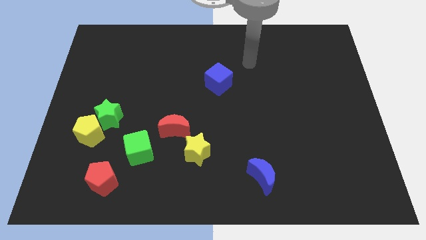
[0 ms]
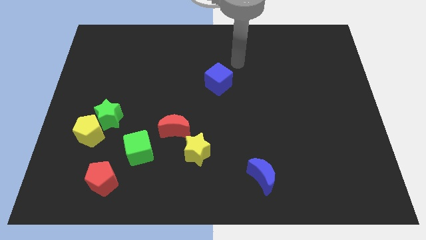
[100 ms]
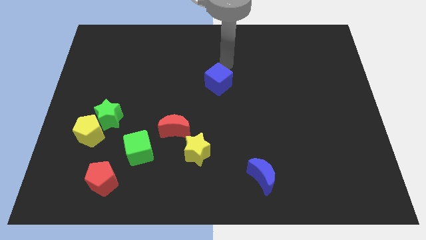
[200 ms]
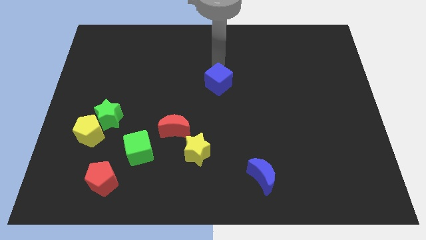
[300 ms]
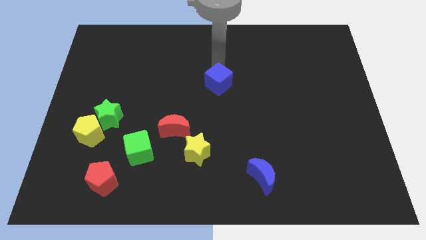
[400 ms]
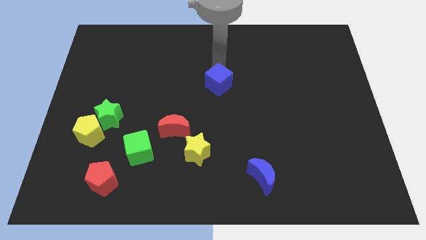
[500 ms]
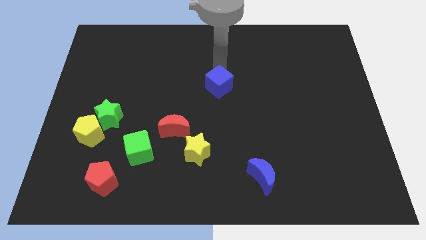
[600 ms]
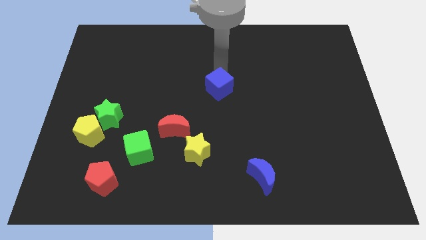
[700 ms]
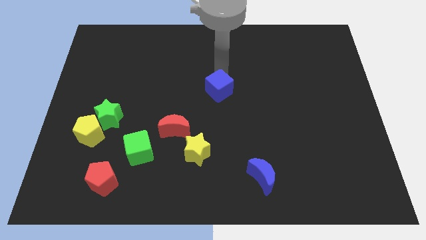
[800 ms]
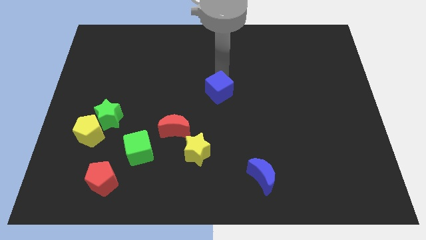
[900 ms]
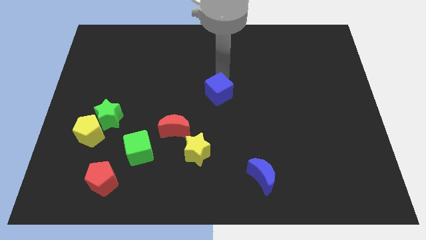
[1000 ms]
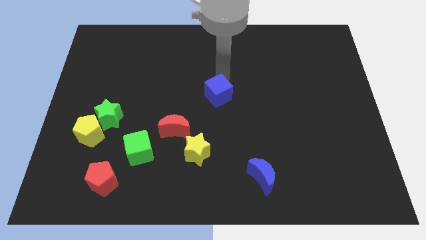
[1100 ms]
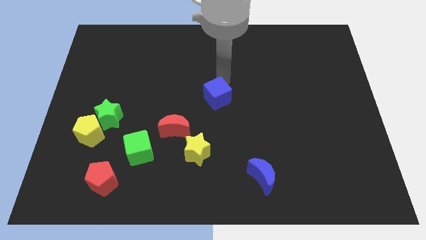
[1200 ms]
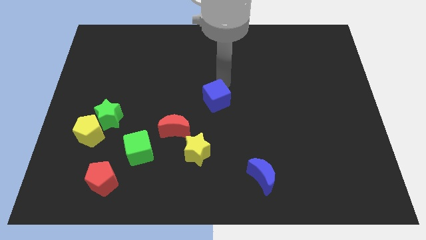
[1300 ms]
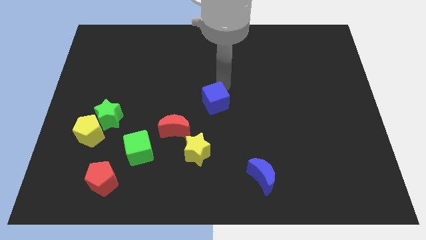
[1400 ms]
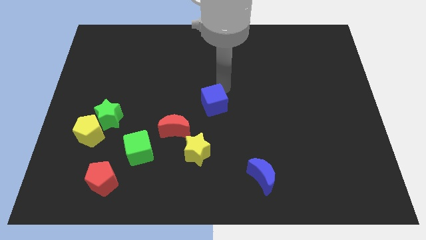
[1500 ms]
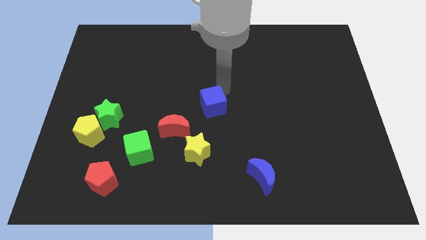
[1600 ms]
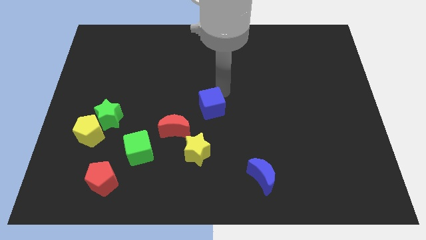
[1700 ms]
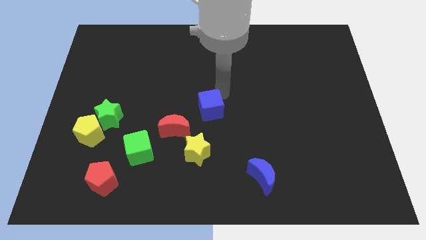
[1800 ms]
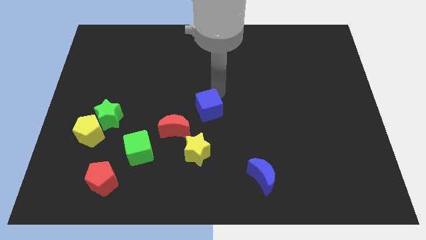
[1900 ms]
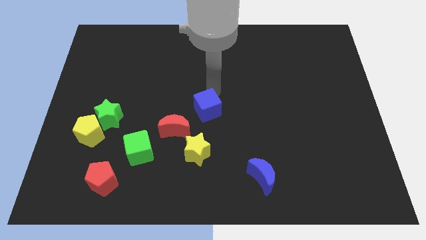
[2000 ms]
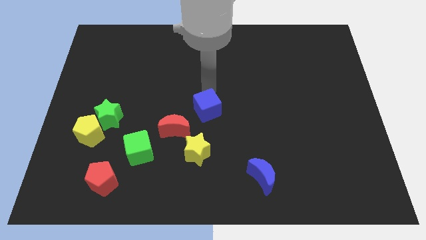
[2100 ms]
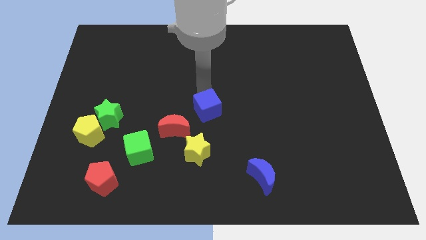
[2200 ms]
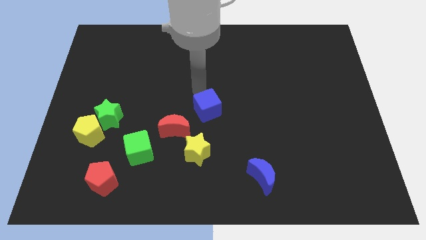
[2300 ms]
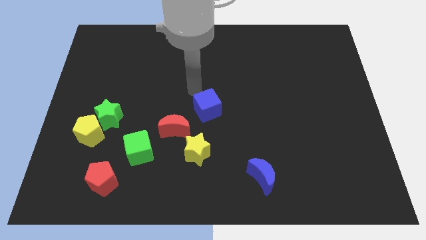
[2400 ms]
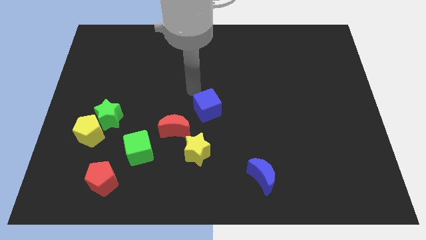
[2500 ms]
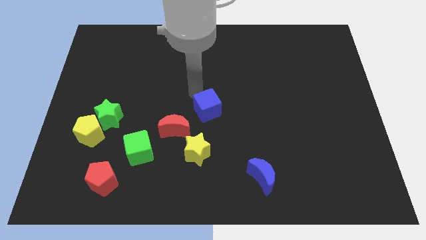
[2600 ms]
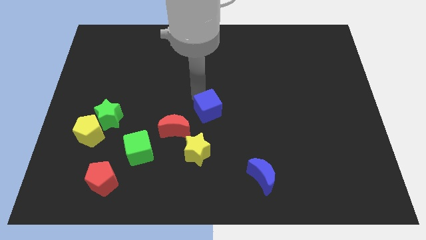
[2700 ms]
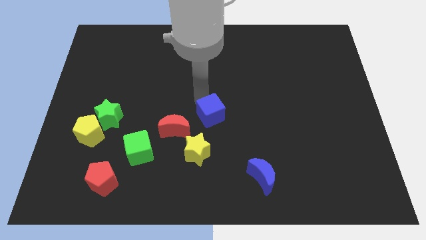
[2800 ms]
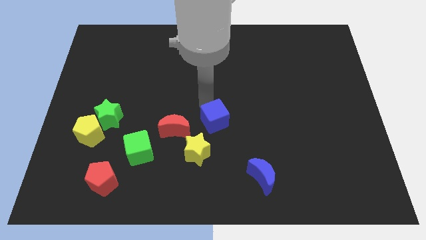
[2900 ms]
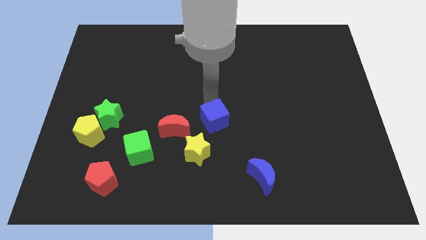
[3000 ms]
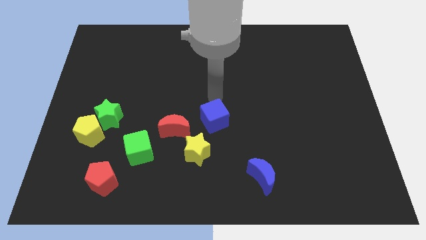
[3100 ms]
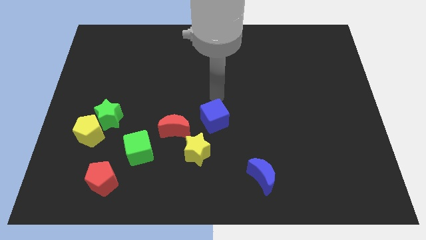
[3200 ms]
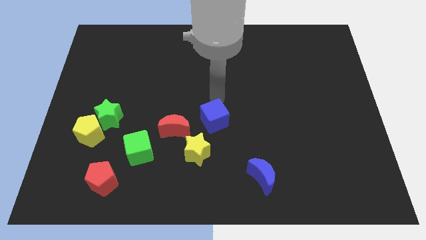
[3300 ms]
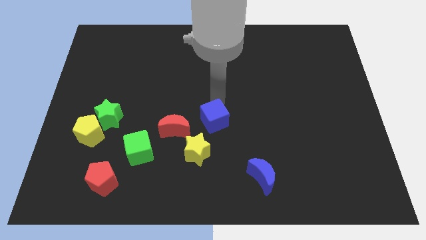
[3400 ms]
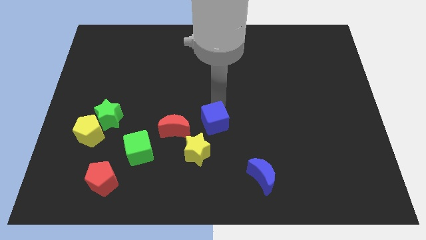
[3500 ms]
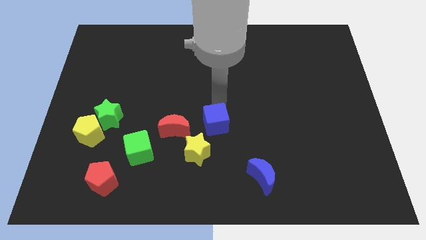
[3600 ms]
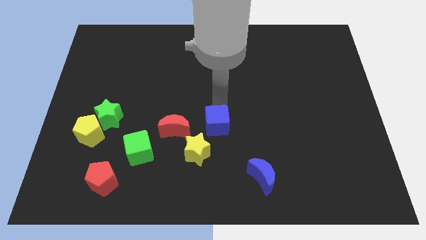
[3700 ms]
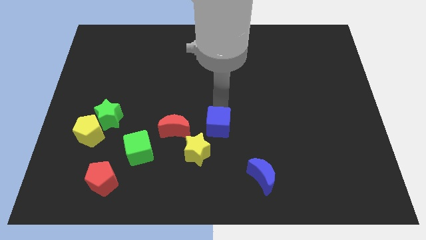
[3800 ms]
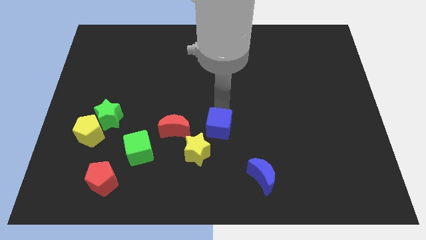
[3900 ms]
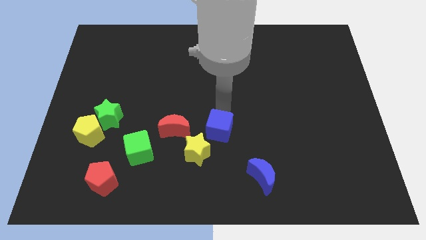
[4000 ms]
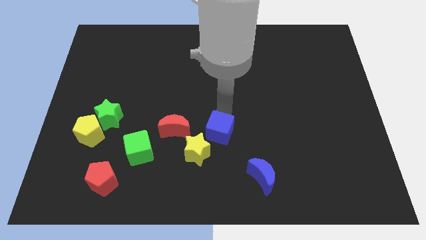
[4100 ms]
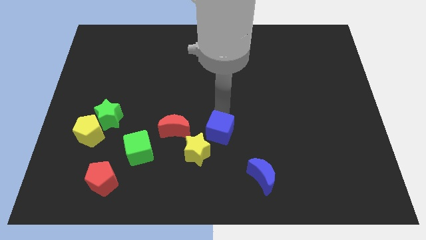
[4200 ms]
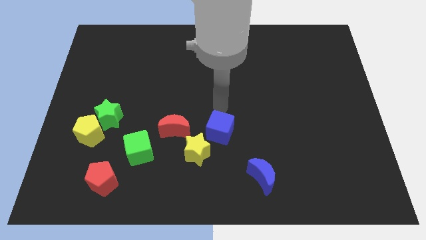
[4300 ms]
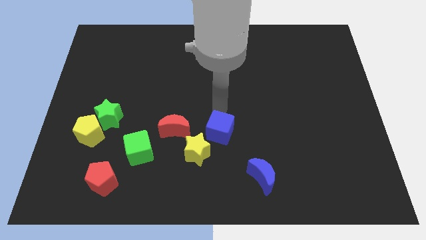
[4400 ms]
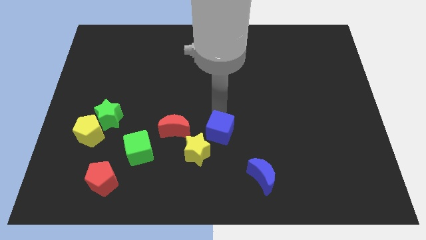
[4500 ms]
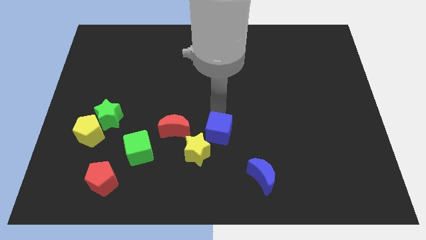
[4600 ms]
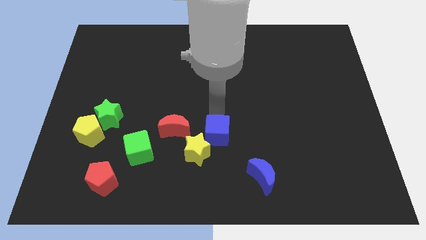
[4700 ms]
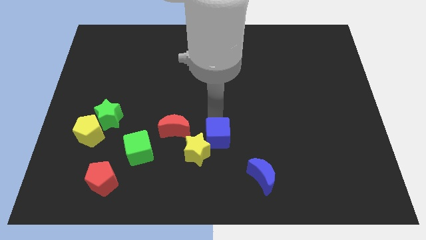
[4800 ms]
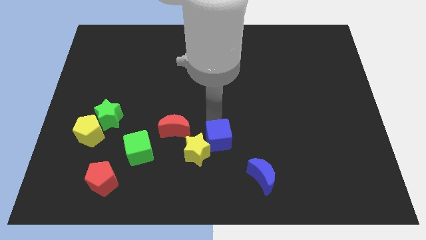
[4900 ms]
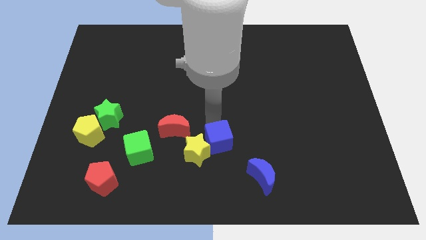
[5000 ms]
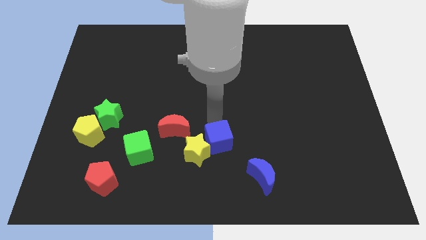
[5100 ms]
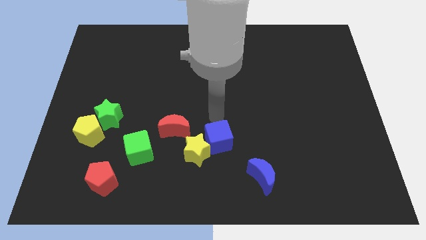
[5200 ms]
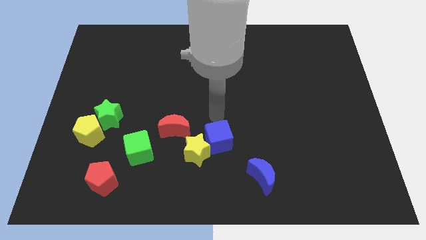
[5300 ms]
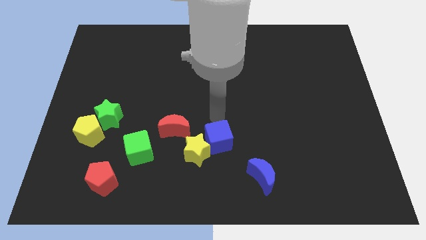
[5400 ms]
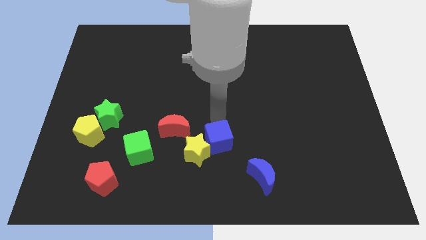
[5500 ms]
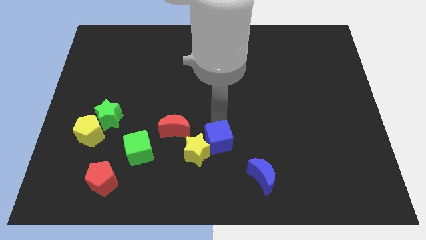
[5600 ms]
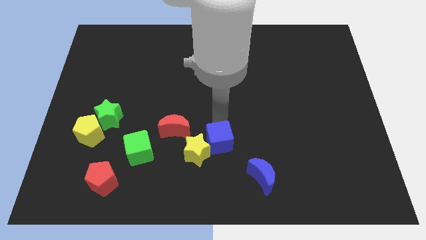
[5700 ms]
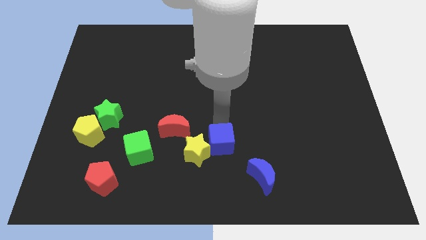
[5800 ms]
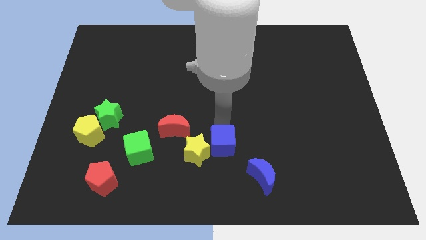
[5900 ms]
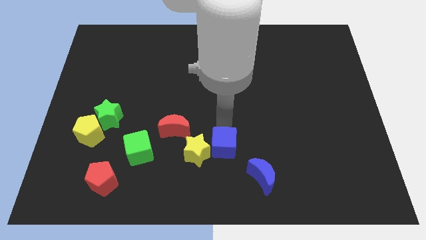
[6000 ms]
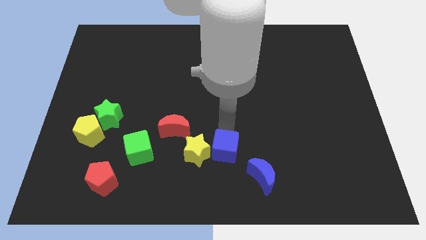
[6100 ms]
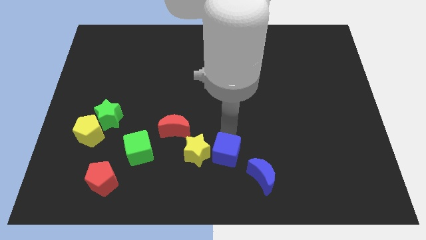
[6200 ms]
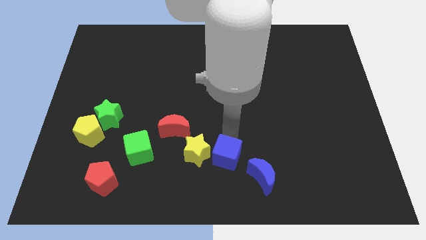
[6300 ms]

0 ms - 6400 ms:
push the blue cube to the bottom
